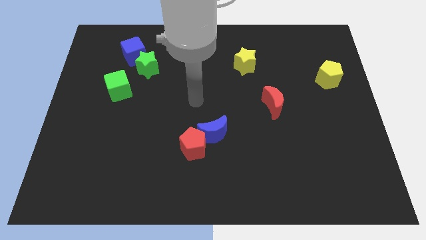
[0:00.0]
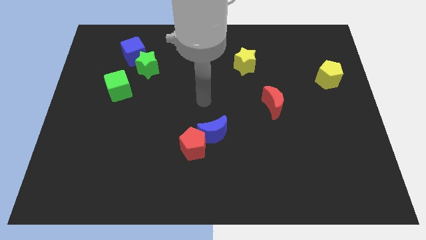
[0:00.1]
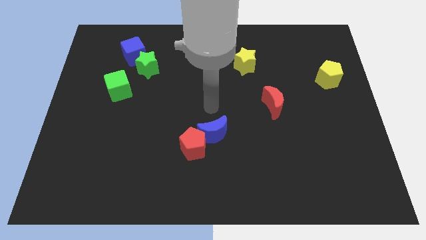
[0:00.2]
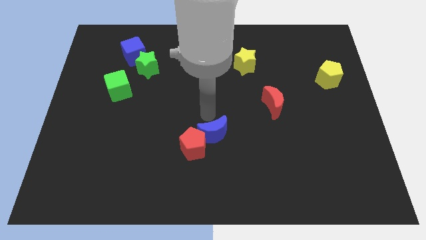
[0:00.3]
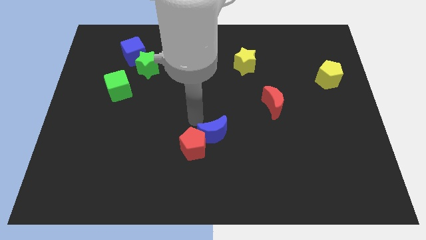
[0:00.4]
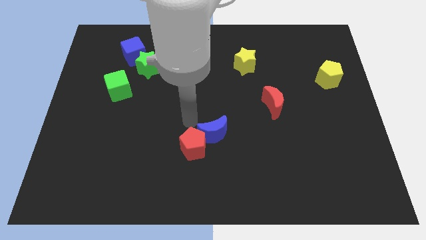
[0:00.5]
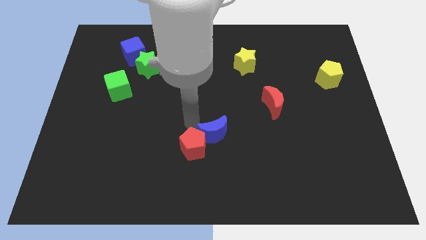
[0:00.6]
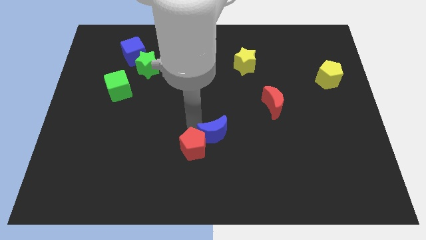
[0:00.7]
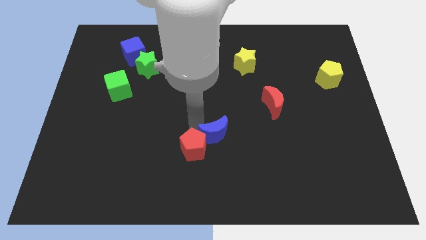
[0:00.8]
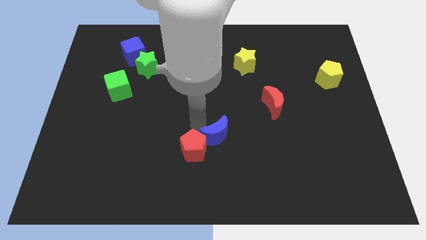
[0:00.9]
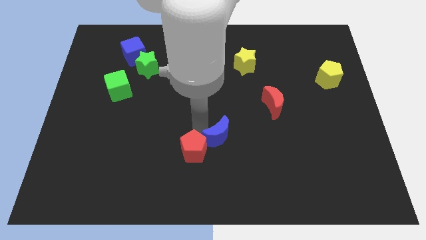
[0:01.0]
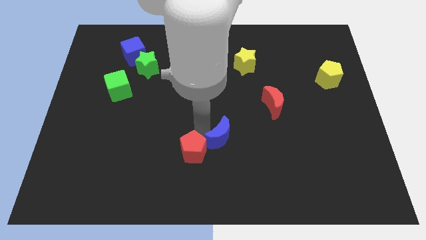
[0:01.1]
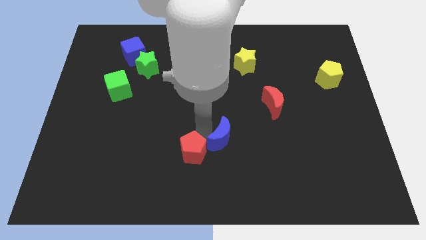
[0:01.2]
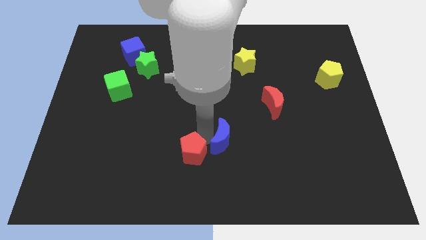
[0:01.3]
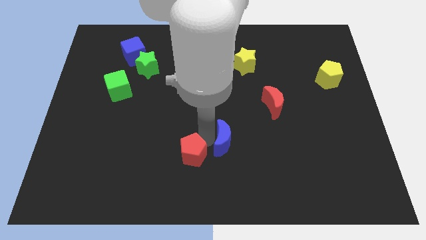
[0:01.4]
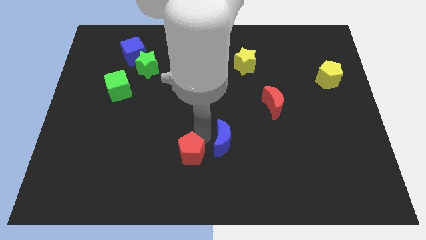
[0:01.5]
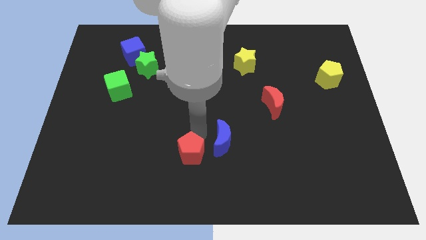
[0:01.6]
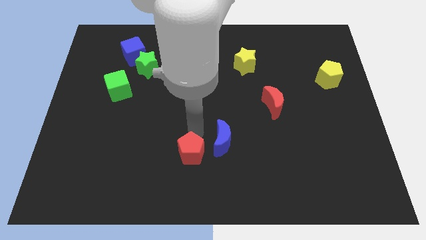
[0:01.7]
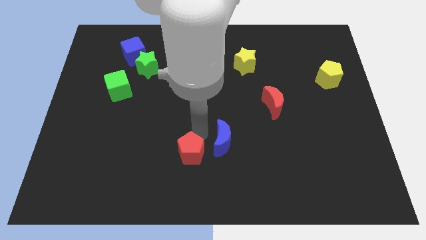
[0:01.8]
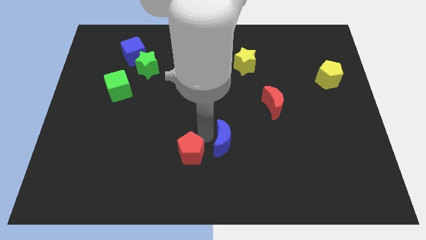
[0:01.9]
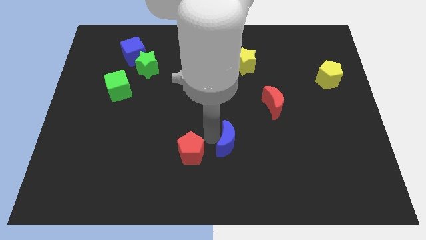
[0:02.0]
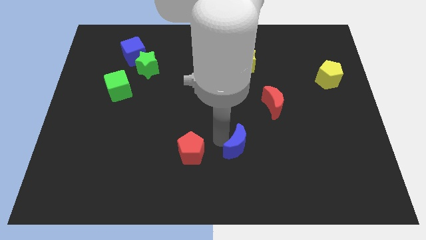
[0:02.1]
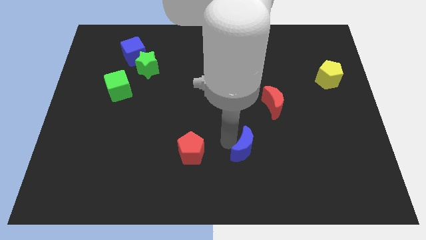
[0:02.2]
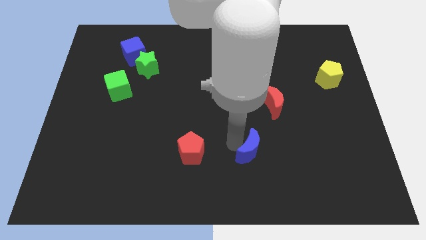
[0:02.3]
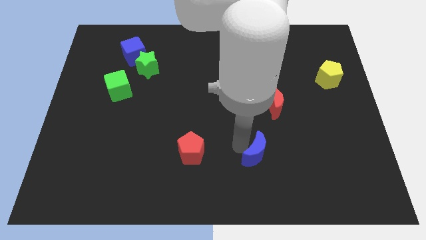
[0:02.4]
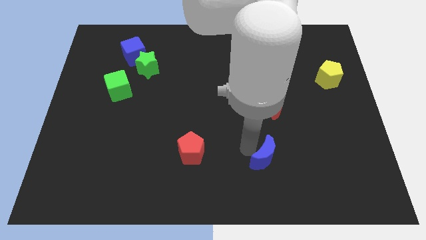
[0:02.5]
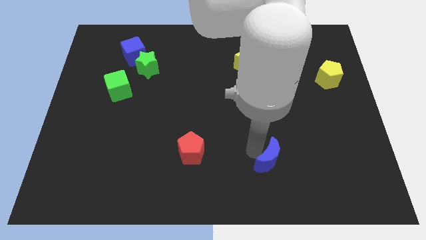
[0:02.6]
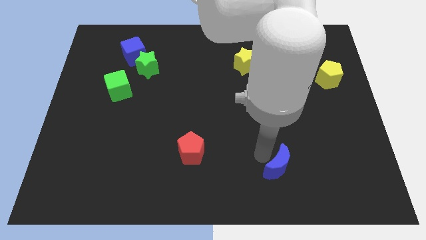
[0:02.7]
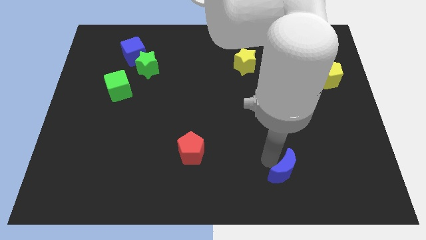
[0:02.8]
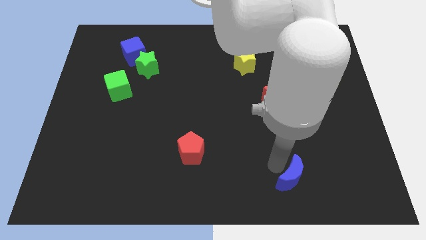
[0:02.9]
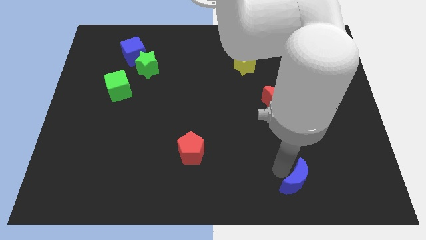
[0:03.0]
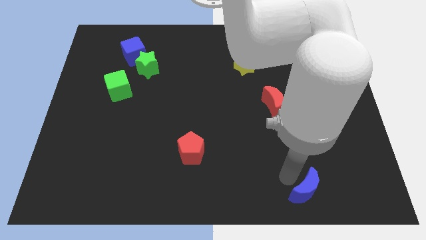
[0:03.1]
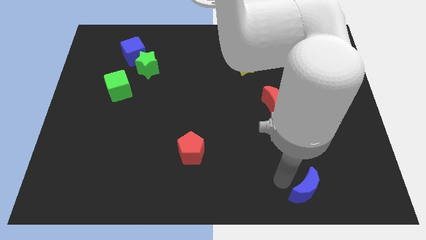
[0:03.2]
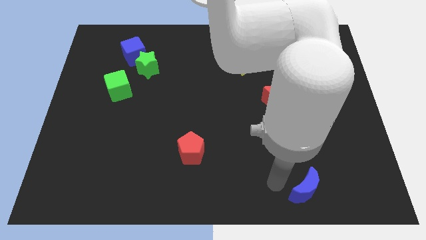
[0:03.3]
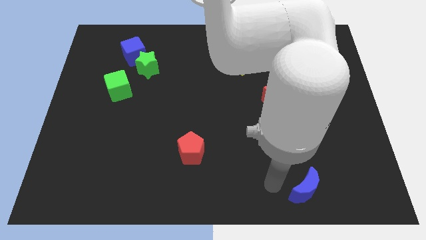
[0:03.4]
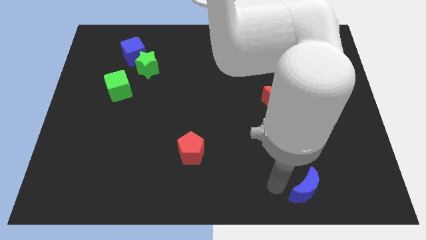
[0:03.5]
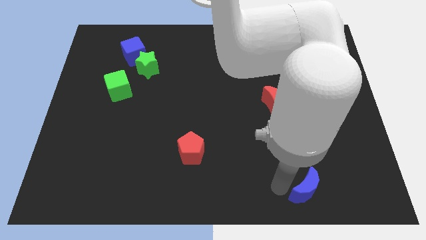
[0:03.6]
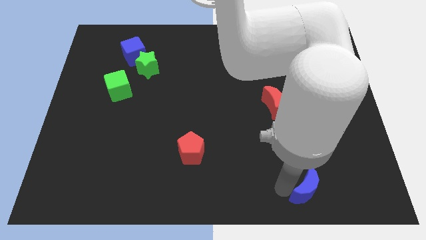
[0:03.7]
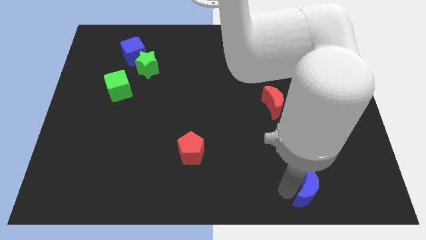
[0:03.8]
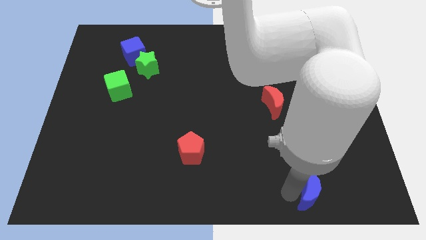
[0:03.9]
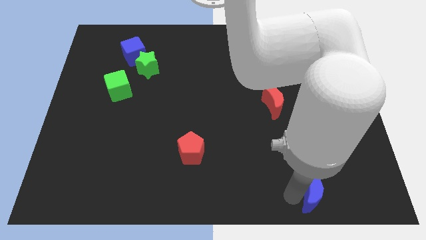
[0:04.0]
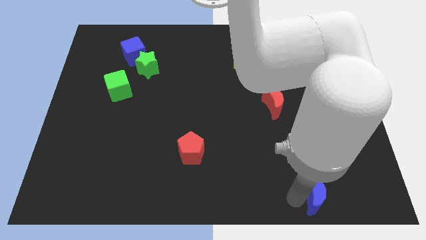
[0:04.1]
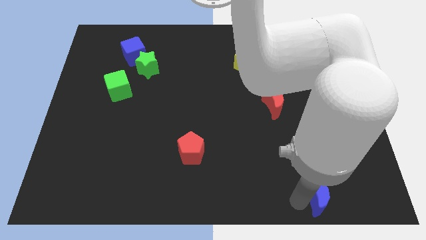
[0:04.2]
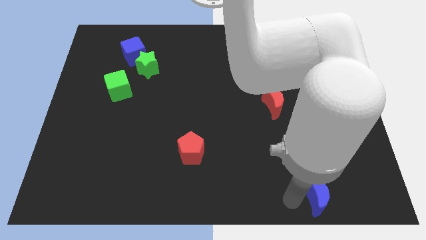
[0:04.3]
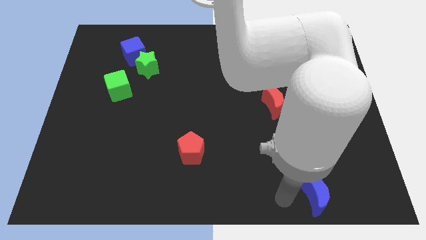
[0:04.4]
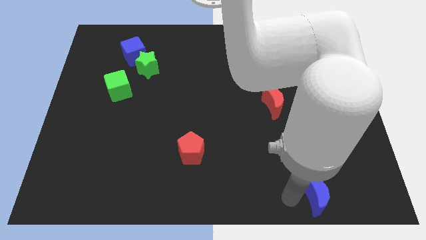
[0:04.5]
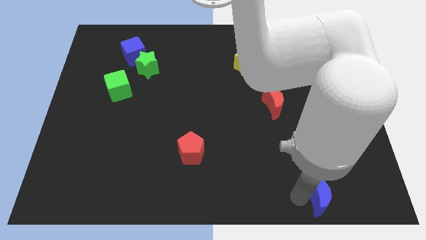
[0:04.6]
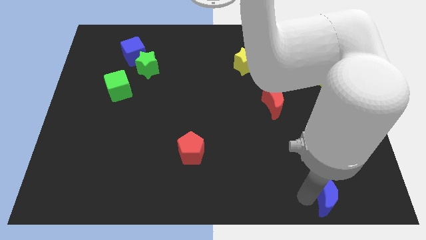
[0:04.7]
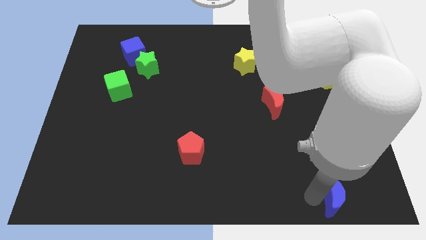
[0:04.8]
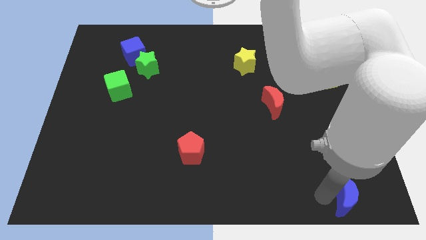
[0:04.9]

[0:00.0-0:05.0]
slide the blue moon to the bottom right

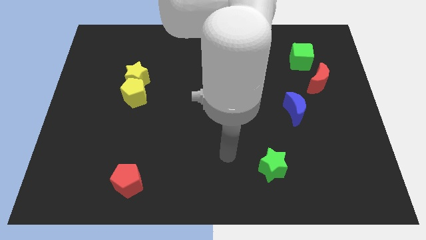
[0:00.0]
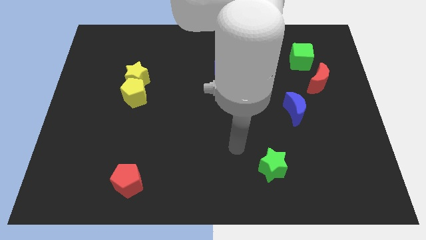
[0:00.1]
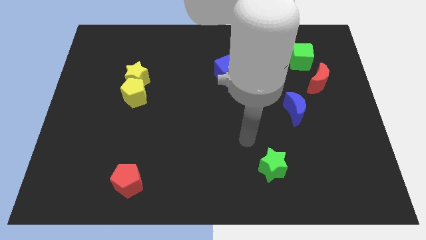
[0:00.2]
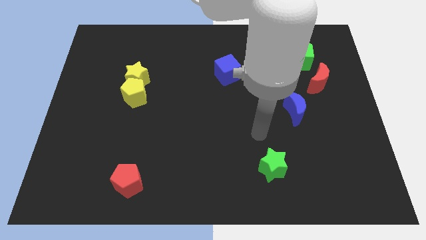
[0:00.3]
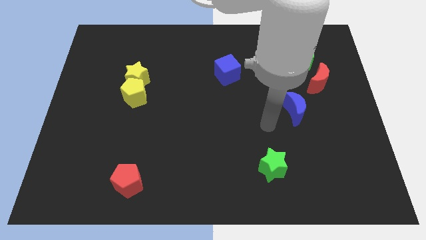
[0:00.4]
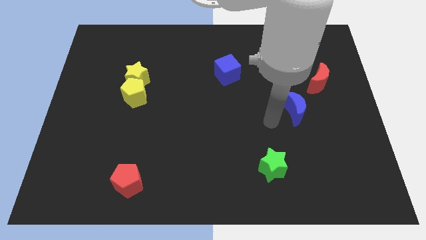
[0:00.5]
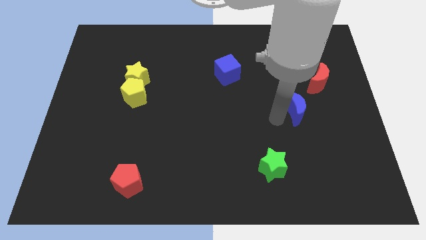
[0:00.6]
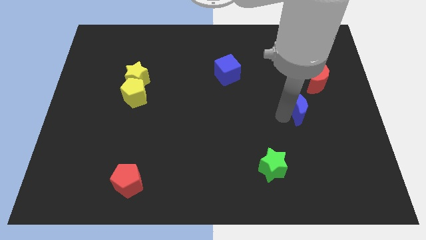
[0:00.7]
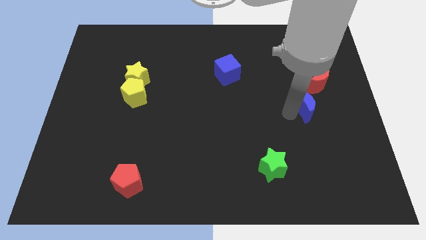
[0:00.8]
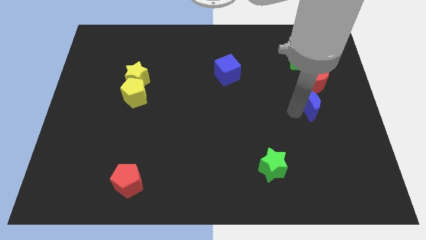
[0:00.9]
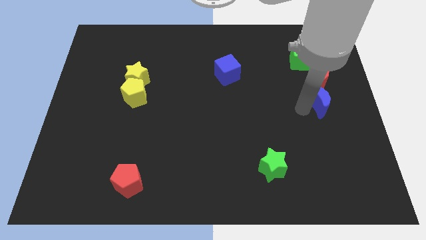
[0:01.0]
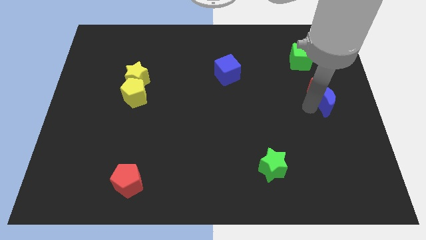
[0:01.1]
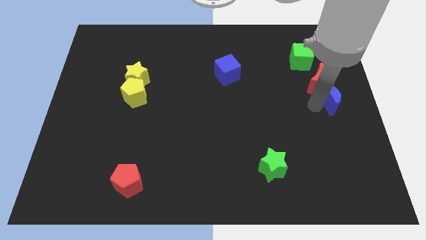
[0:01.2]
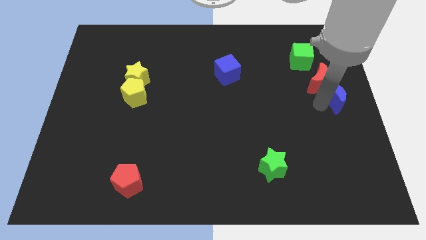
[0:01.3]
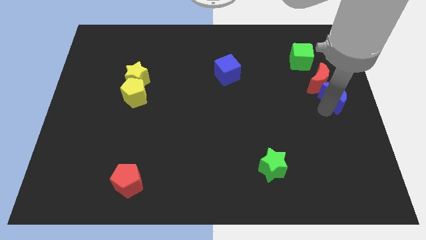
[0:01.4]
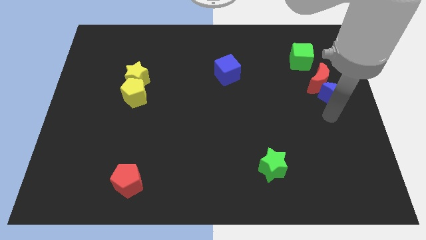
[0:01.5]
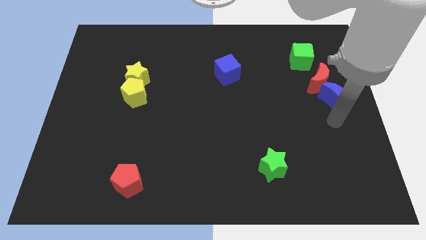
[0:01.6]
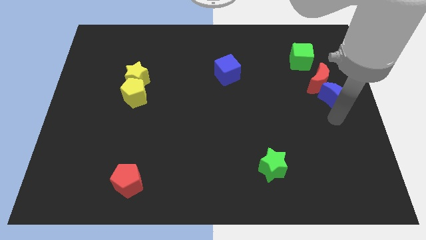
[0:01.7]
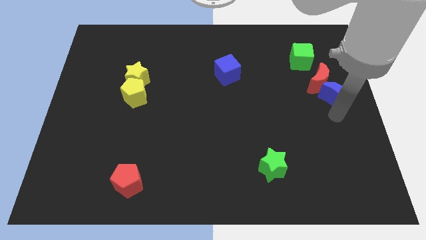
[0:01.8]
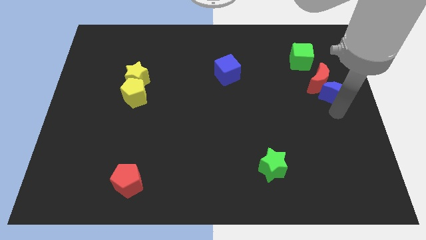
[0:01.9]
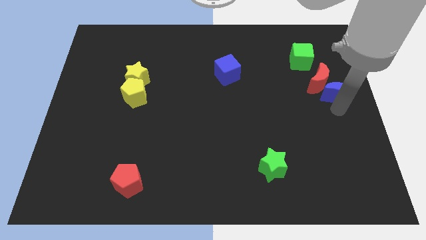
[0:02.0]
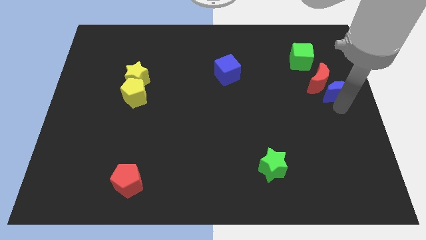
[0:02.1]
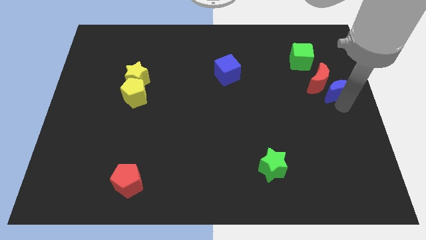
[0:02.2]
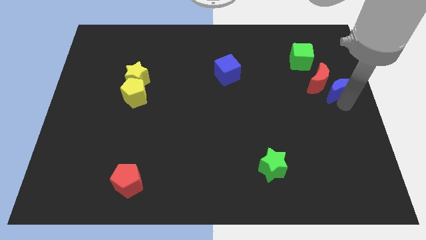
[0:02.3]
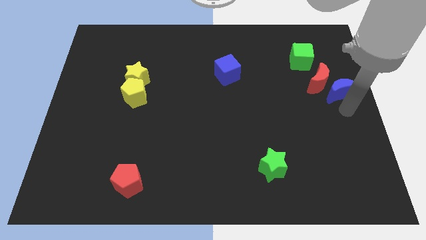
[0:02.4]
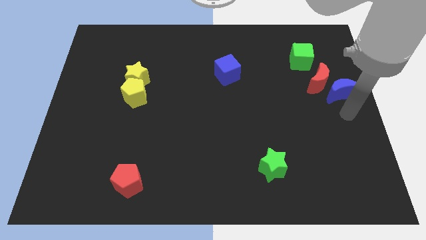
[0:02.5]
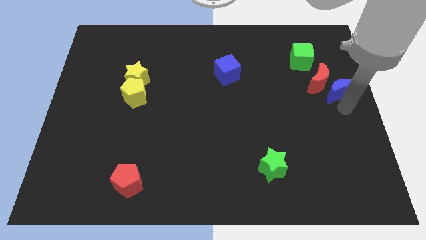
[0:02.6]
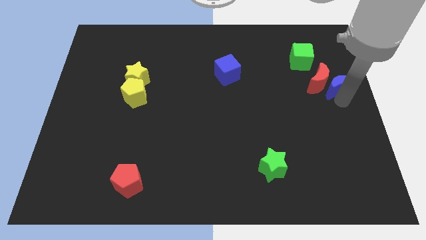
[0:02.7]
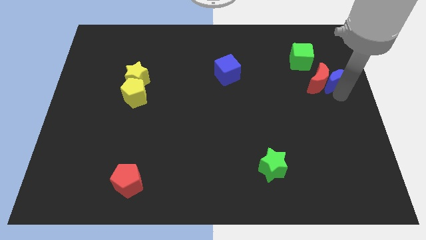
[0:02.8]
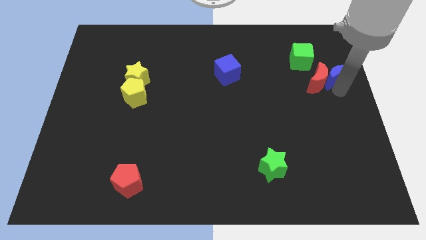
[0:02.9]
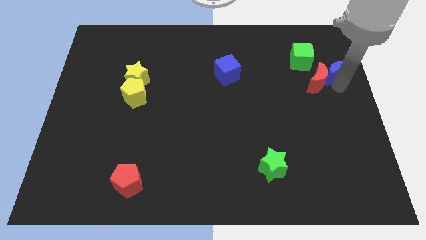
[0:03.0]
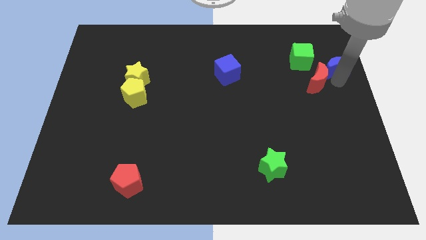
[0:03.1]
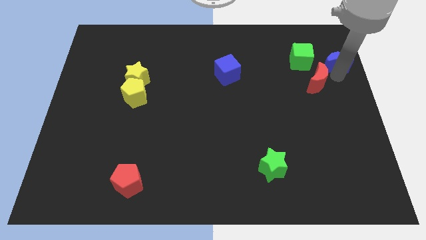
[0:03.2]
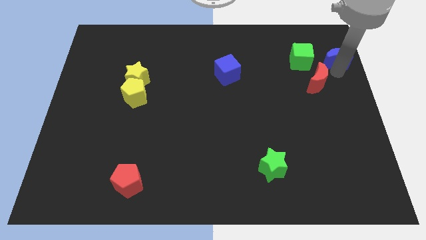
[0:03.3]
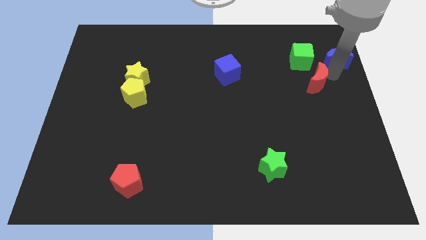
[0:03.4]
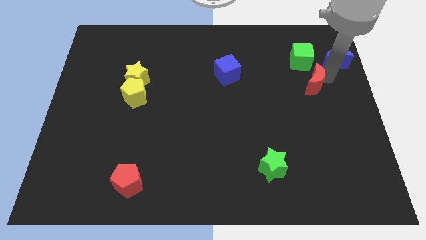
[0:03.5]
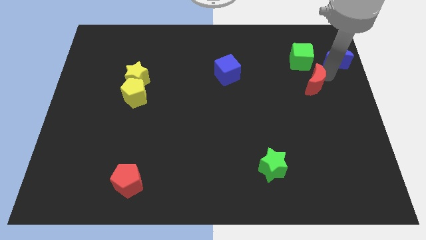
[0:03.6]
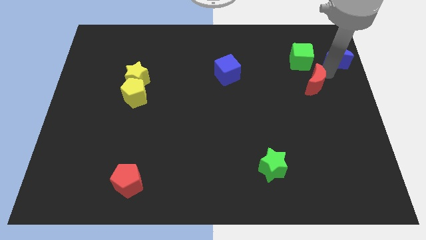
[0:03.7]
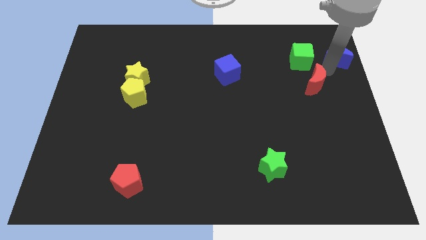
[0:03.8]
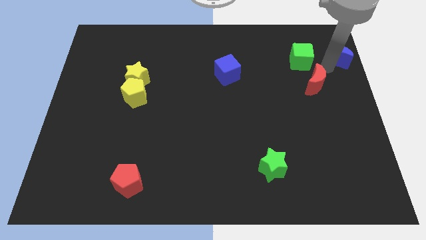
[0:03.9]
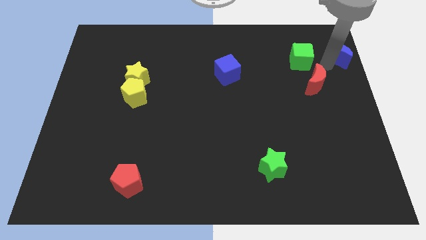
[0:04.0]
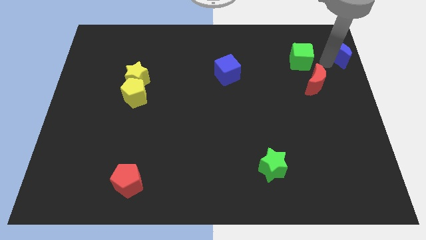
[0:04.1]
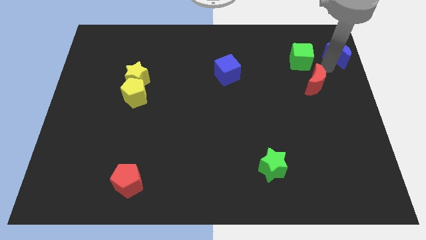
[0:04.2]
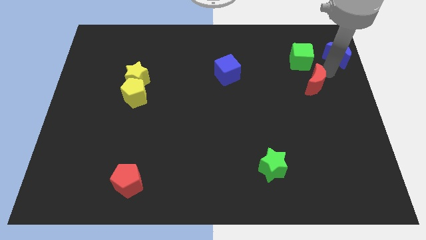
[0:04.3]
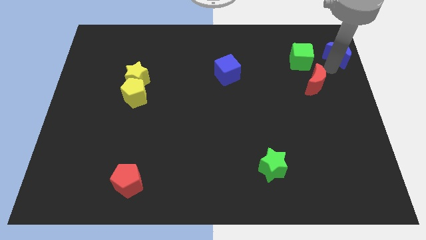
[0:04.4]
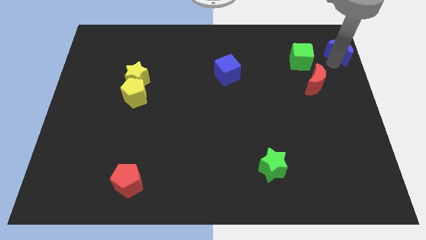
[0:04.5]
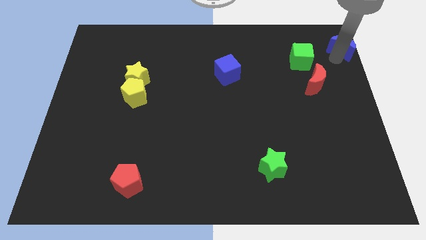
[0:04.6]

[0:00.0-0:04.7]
push the blue moon to the top right corner
